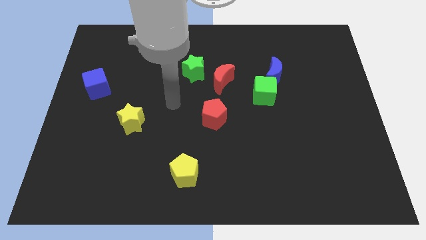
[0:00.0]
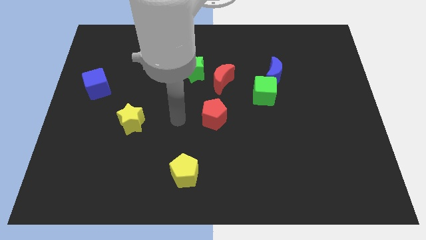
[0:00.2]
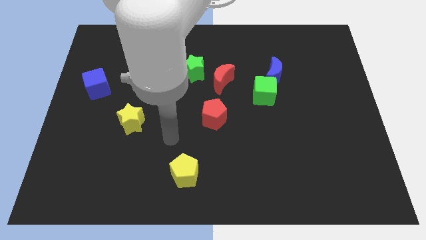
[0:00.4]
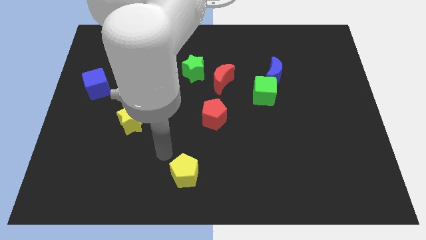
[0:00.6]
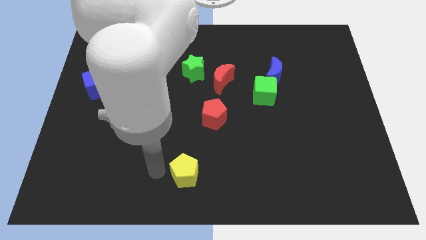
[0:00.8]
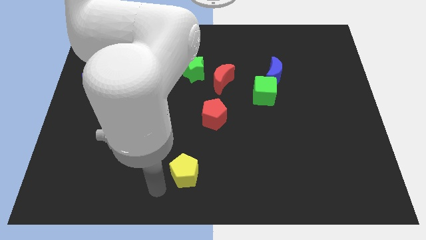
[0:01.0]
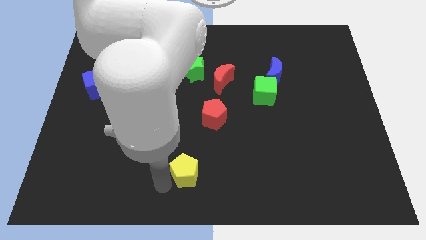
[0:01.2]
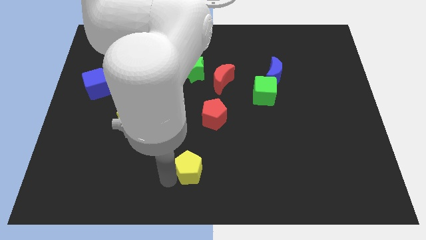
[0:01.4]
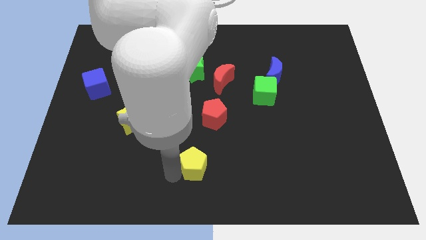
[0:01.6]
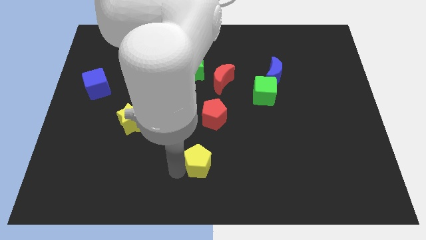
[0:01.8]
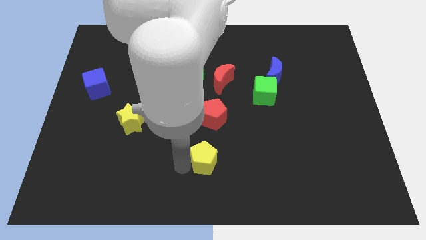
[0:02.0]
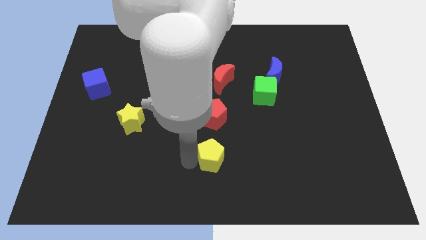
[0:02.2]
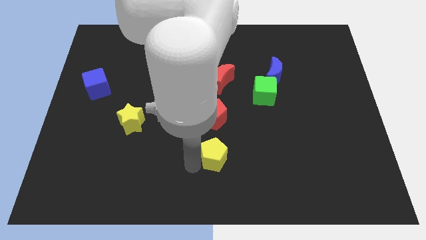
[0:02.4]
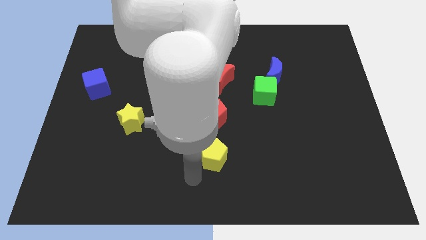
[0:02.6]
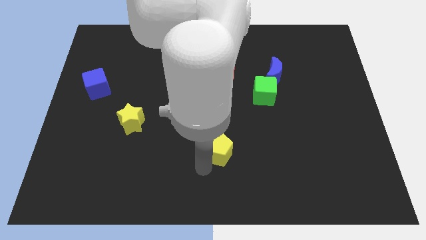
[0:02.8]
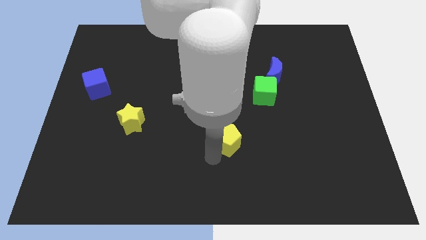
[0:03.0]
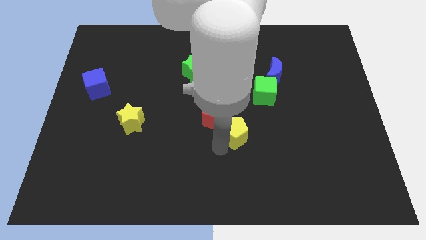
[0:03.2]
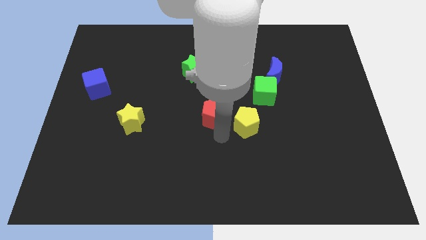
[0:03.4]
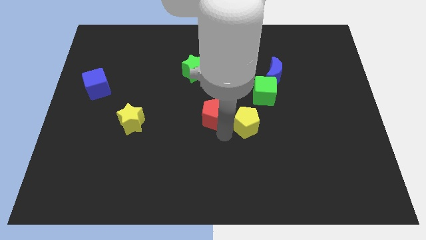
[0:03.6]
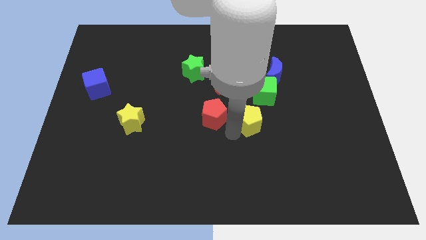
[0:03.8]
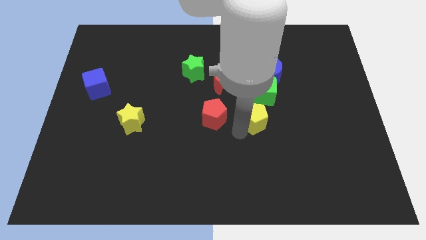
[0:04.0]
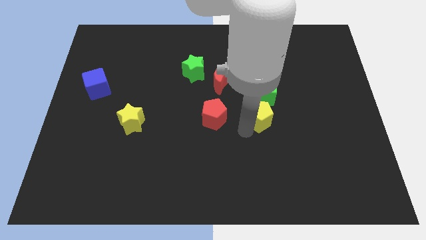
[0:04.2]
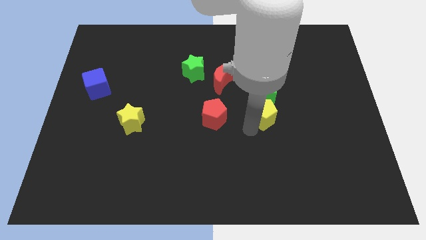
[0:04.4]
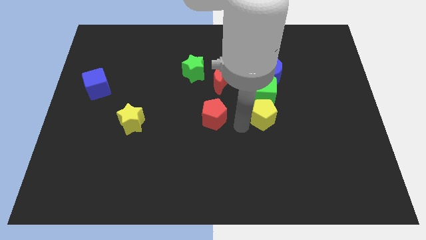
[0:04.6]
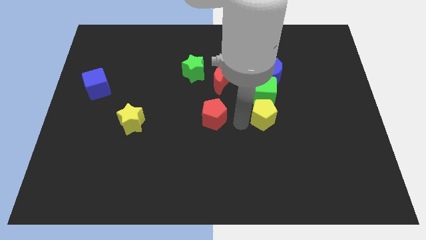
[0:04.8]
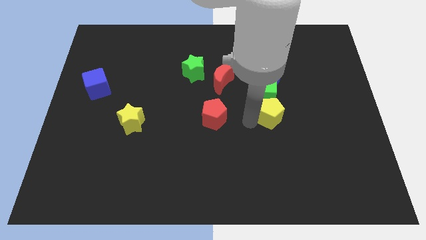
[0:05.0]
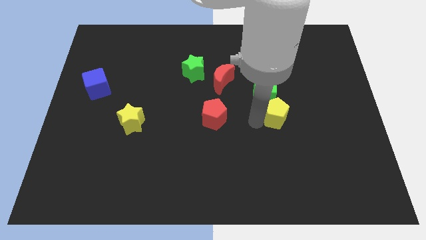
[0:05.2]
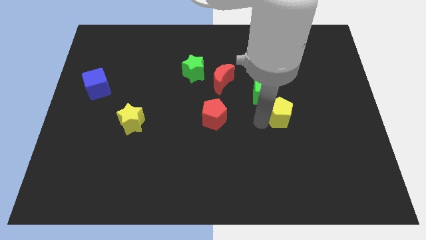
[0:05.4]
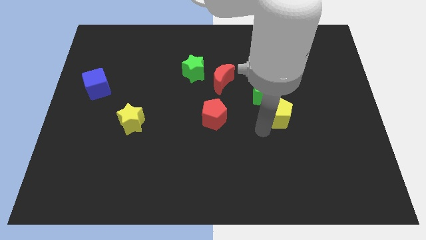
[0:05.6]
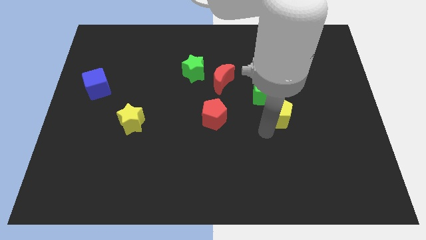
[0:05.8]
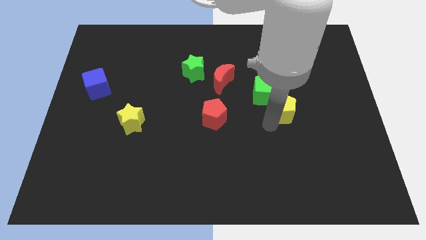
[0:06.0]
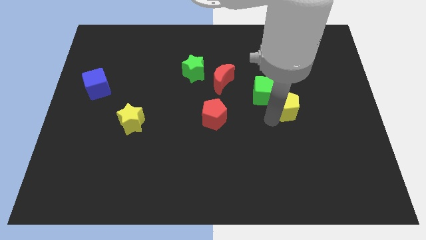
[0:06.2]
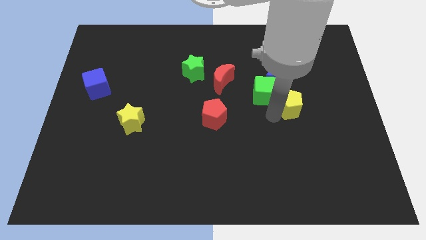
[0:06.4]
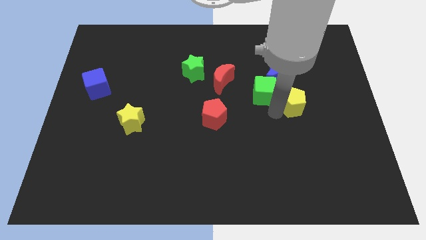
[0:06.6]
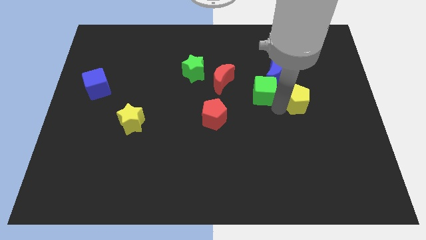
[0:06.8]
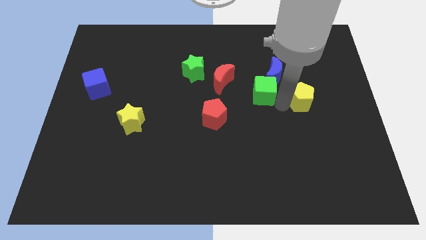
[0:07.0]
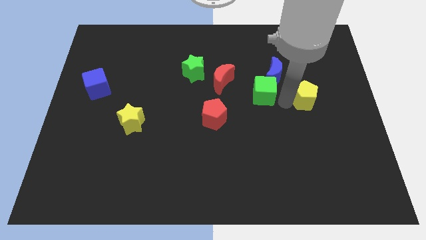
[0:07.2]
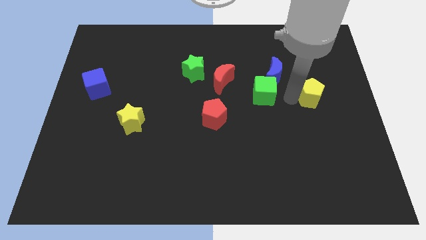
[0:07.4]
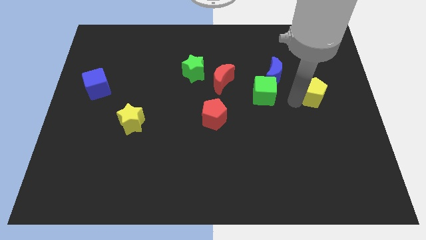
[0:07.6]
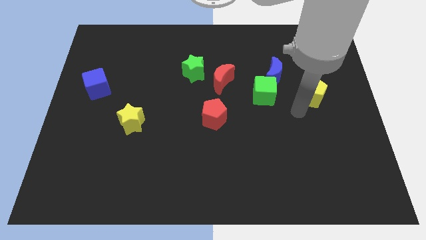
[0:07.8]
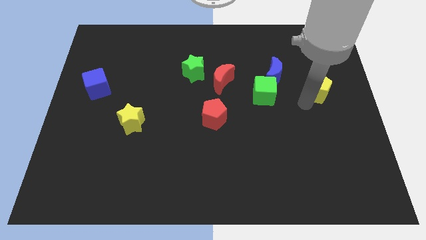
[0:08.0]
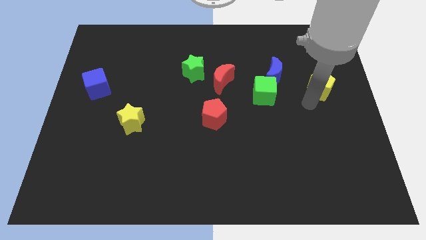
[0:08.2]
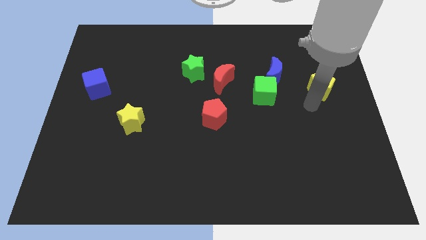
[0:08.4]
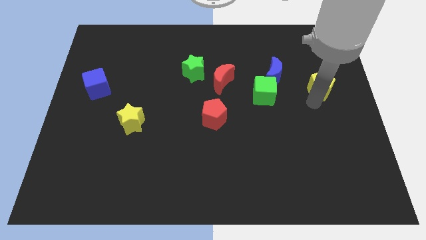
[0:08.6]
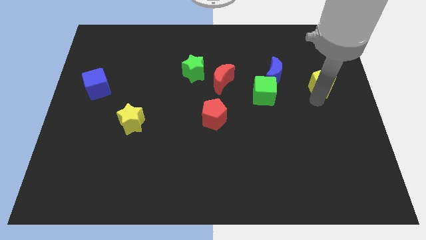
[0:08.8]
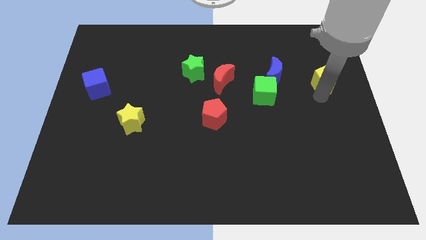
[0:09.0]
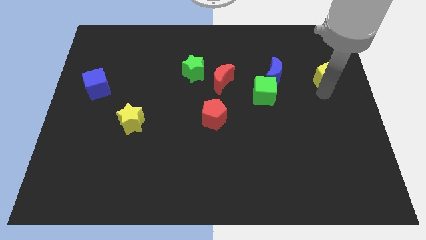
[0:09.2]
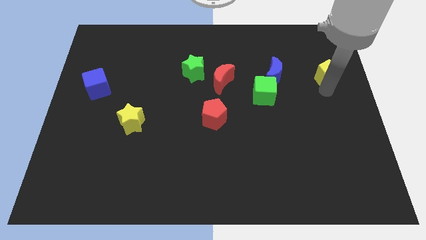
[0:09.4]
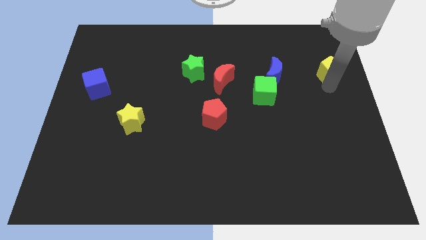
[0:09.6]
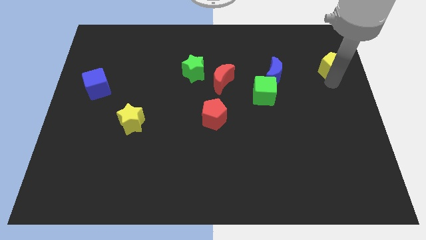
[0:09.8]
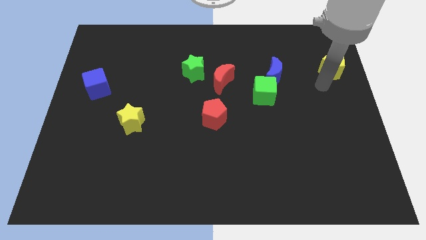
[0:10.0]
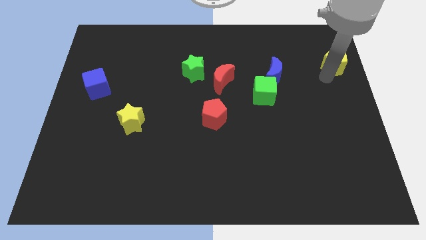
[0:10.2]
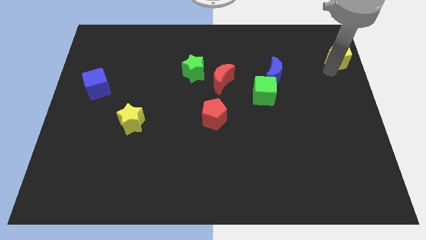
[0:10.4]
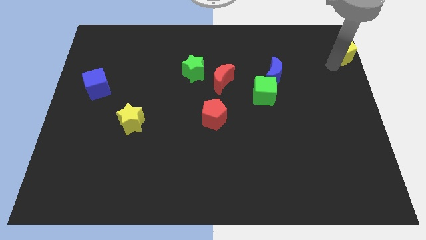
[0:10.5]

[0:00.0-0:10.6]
slide the yellow pentagon to the top right

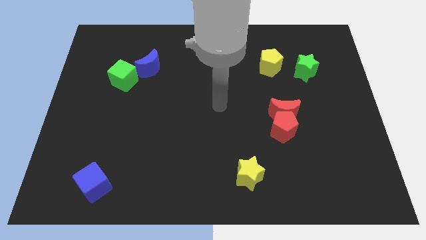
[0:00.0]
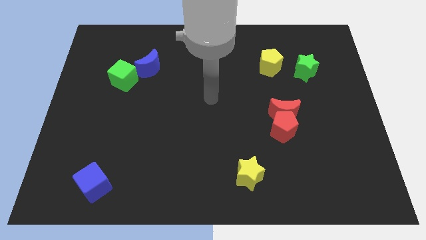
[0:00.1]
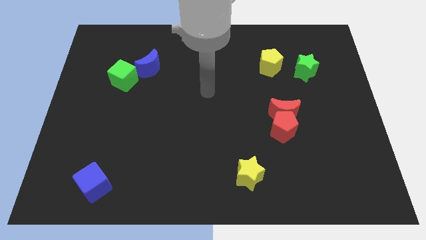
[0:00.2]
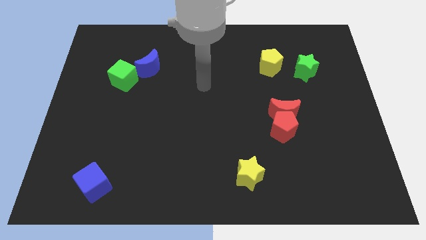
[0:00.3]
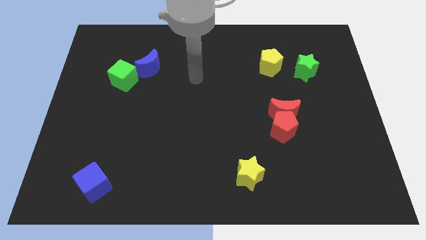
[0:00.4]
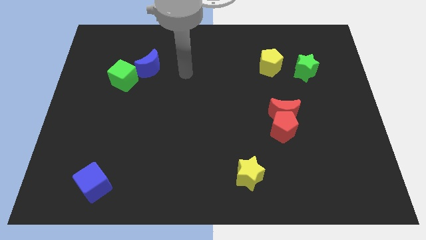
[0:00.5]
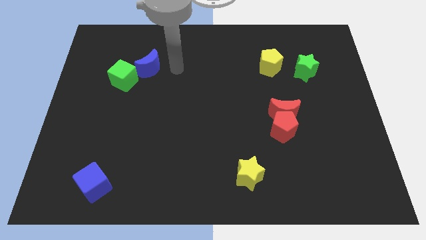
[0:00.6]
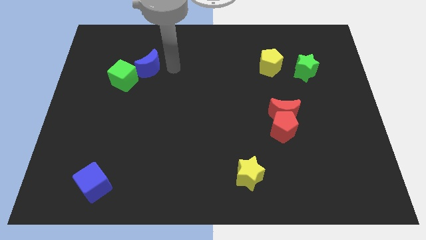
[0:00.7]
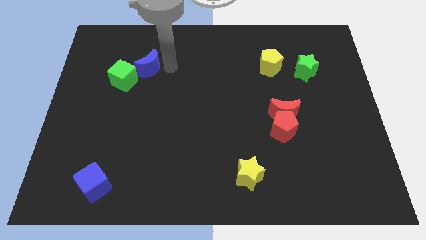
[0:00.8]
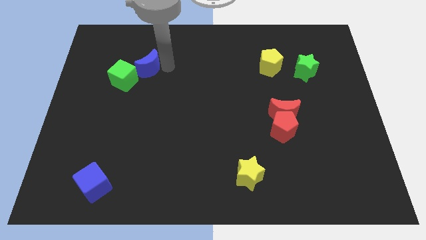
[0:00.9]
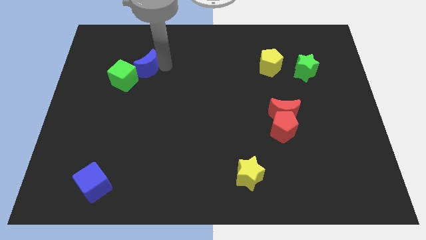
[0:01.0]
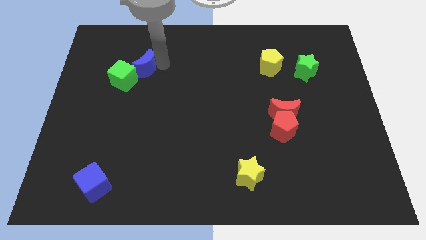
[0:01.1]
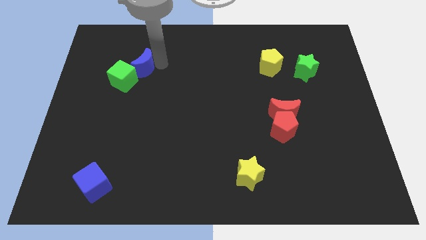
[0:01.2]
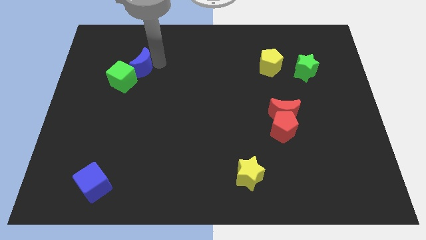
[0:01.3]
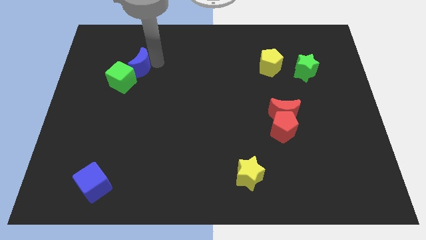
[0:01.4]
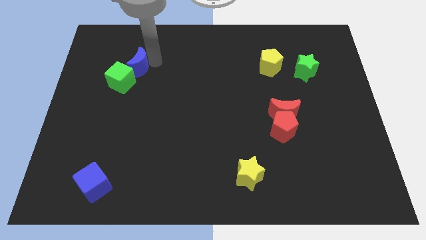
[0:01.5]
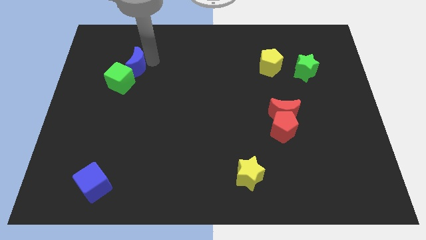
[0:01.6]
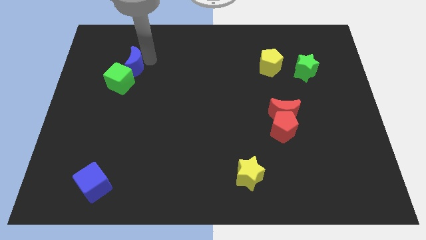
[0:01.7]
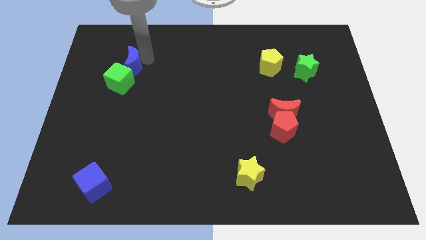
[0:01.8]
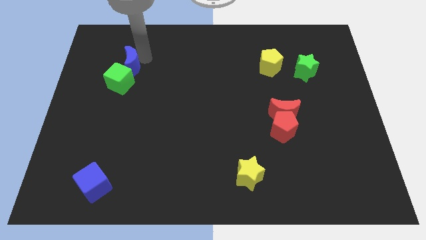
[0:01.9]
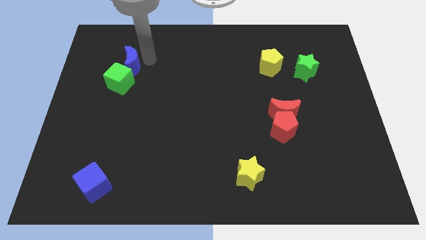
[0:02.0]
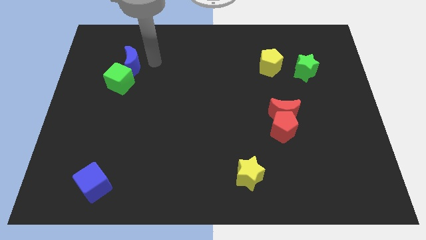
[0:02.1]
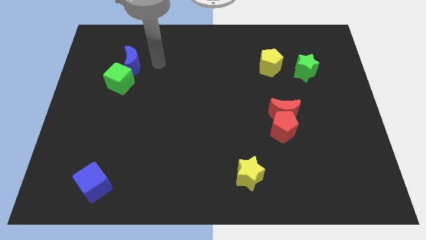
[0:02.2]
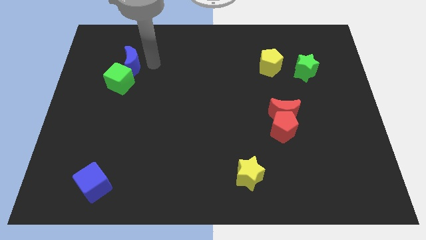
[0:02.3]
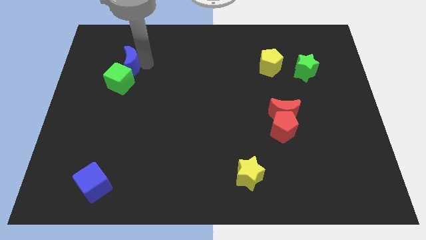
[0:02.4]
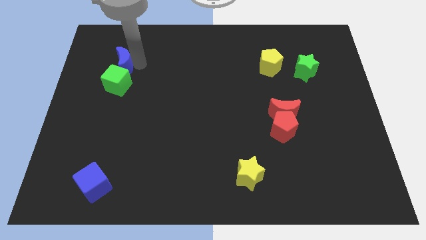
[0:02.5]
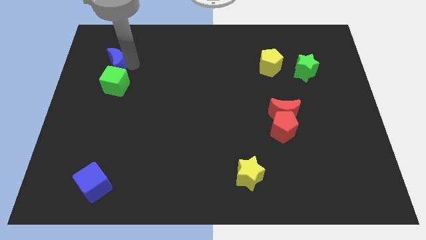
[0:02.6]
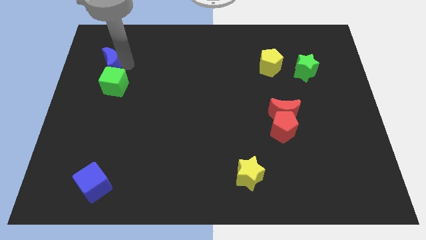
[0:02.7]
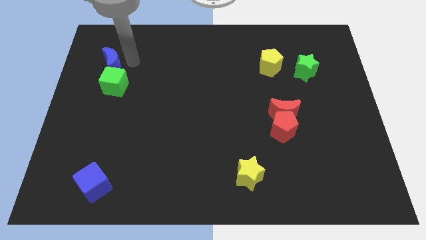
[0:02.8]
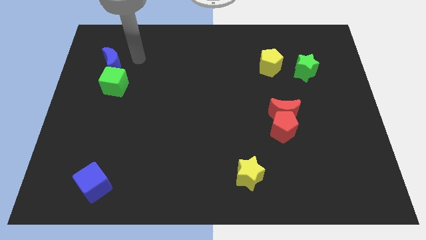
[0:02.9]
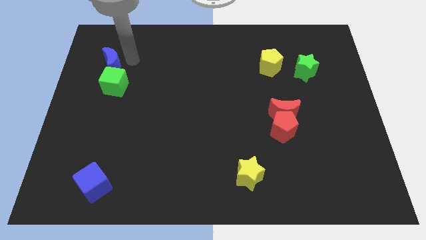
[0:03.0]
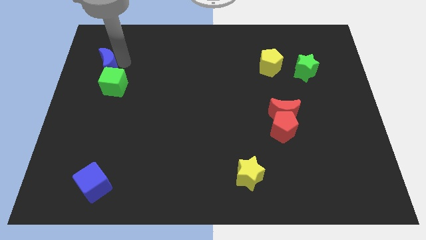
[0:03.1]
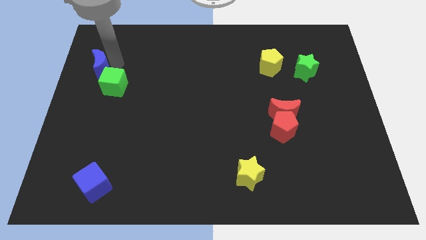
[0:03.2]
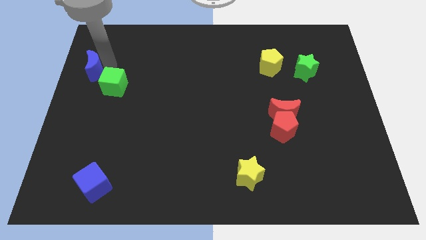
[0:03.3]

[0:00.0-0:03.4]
slide the blue moon to the center left
